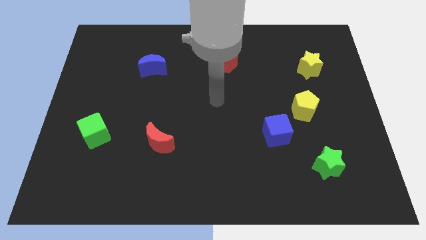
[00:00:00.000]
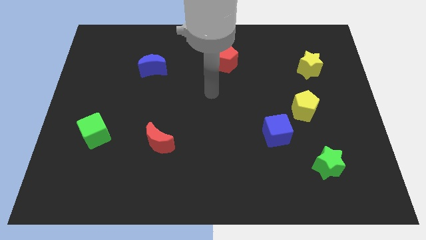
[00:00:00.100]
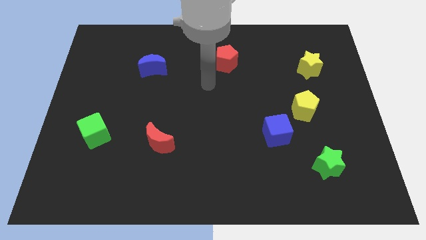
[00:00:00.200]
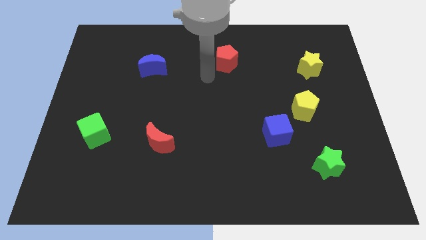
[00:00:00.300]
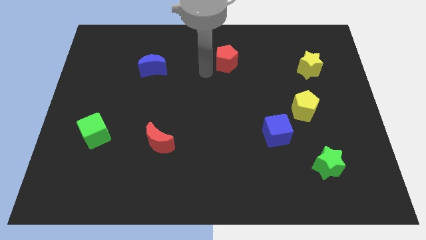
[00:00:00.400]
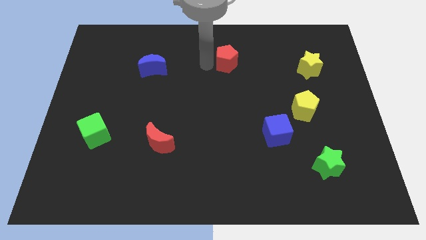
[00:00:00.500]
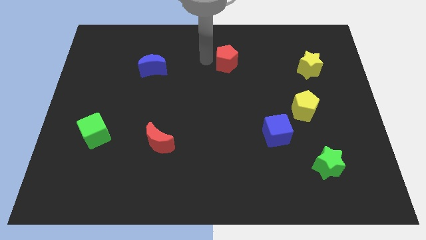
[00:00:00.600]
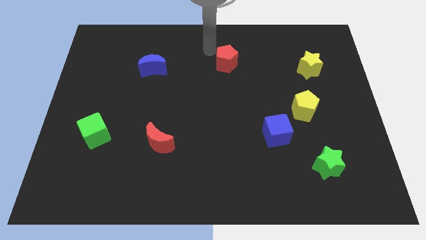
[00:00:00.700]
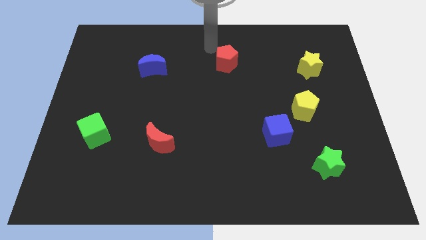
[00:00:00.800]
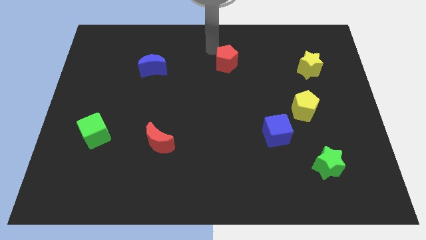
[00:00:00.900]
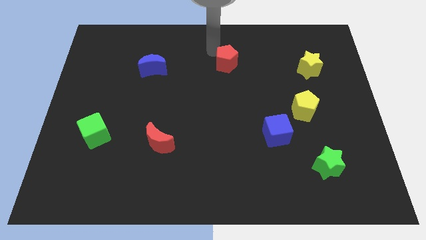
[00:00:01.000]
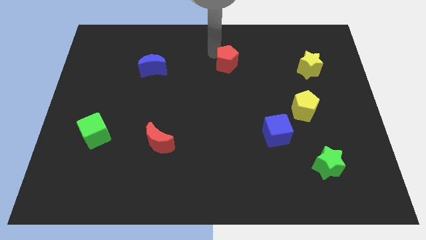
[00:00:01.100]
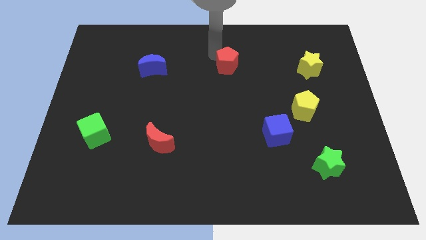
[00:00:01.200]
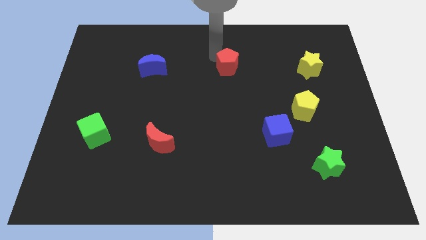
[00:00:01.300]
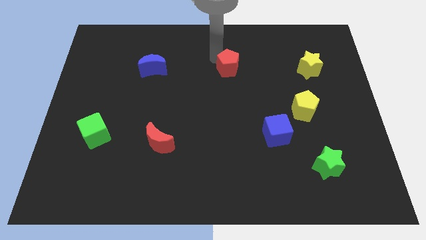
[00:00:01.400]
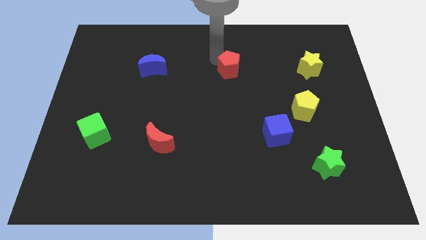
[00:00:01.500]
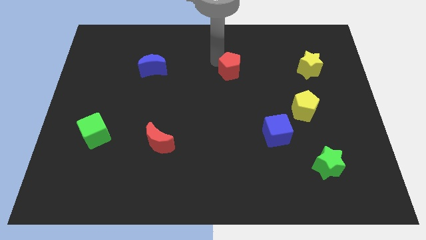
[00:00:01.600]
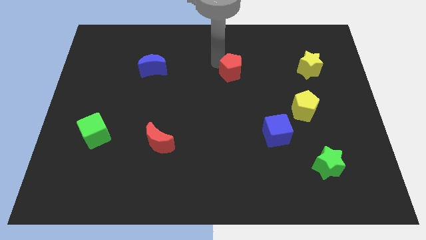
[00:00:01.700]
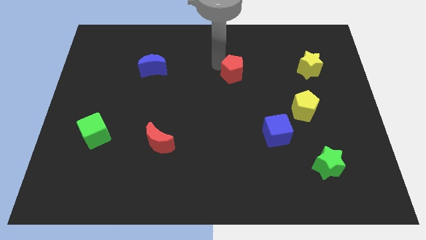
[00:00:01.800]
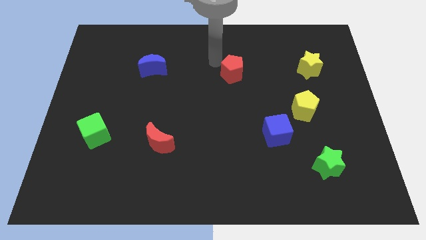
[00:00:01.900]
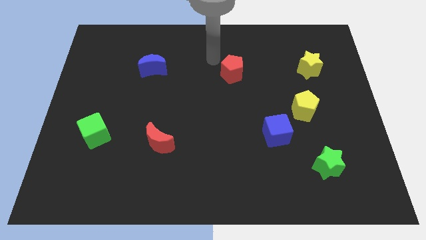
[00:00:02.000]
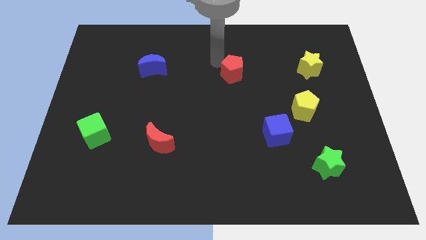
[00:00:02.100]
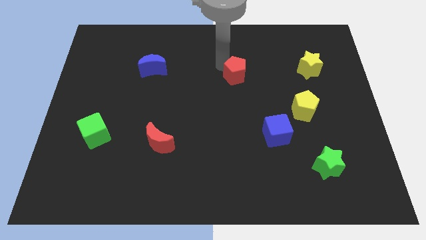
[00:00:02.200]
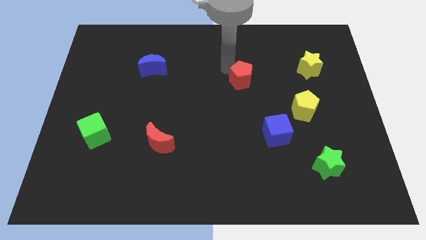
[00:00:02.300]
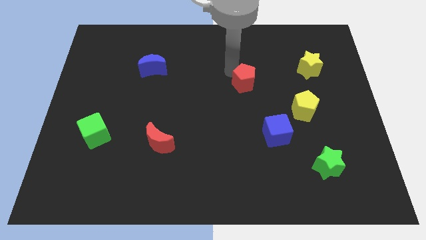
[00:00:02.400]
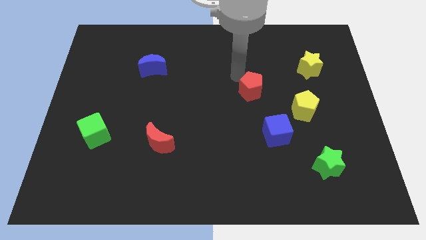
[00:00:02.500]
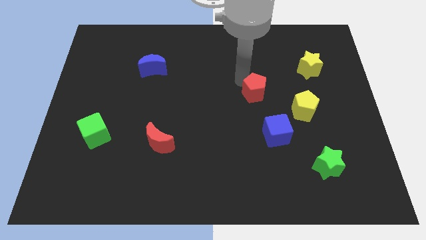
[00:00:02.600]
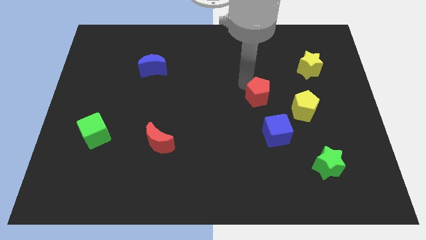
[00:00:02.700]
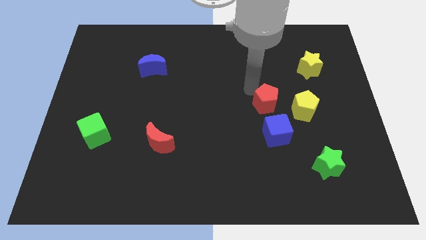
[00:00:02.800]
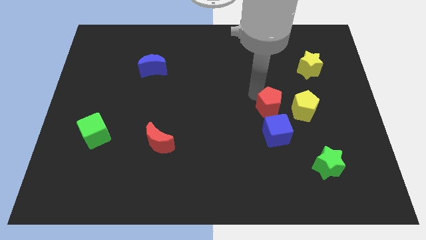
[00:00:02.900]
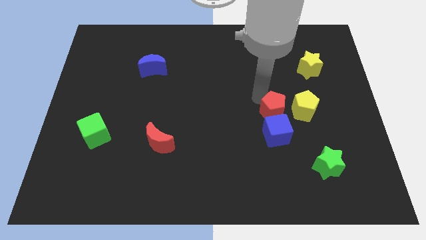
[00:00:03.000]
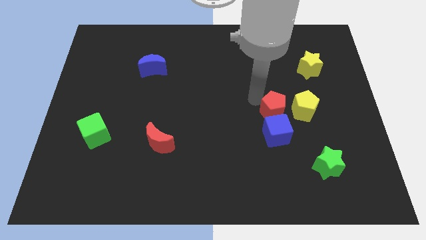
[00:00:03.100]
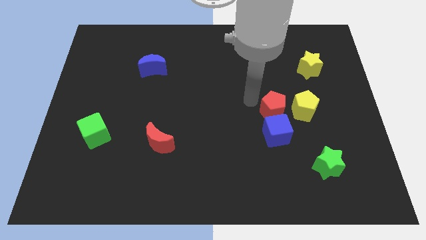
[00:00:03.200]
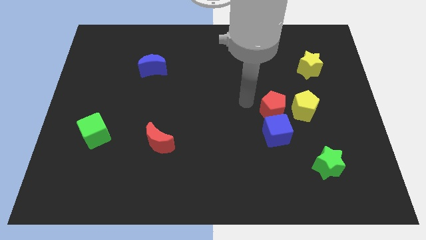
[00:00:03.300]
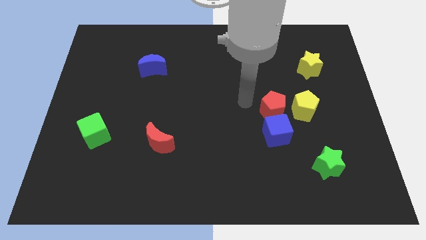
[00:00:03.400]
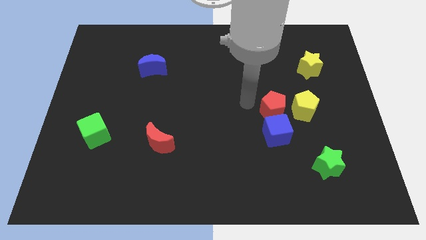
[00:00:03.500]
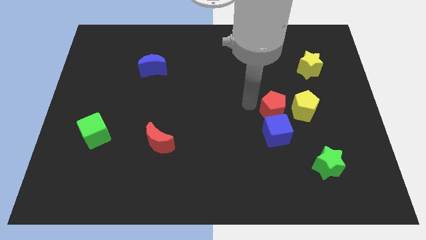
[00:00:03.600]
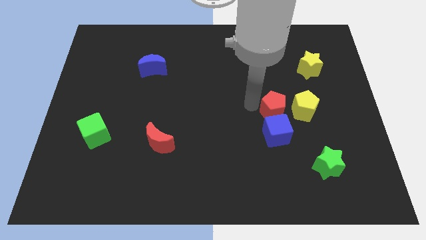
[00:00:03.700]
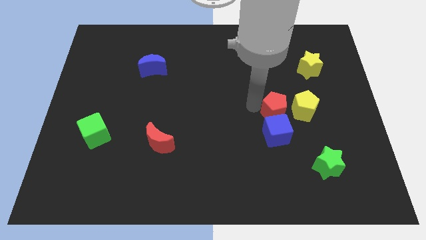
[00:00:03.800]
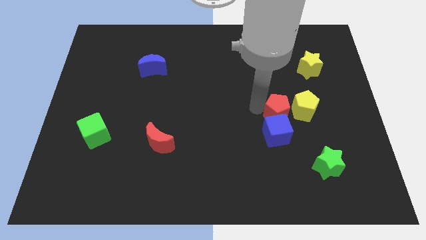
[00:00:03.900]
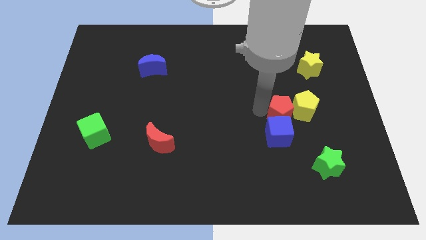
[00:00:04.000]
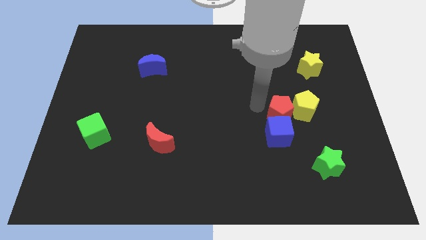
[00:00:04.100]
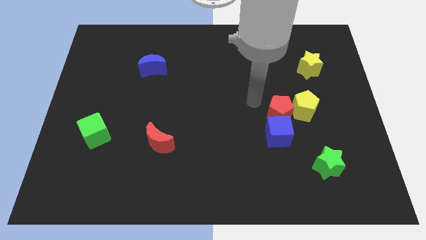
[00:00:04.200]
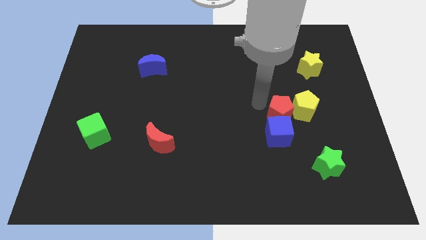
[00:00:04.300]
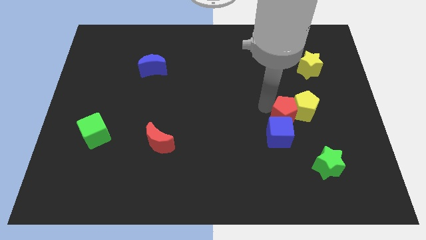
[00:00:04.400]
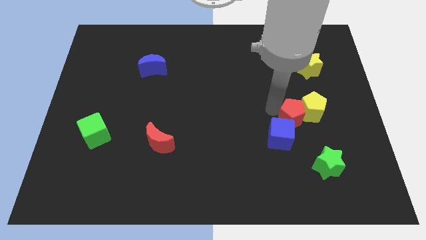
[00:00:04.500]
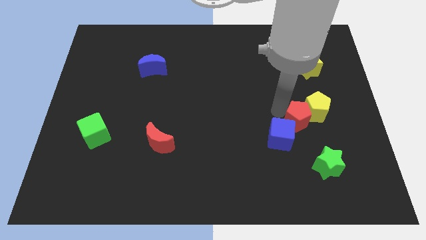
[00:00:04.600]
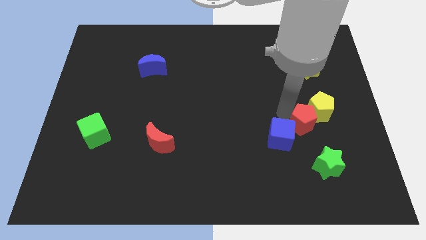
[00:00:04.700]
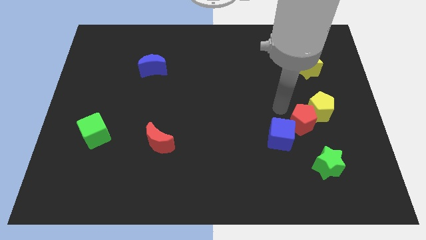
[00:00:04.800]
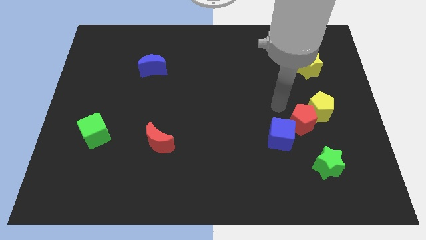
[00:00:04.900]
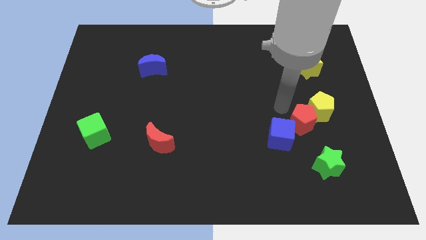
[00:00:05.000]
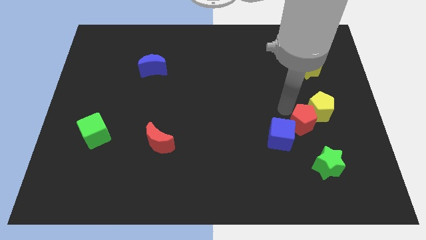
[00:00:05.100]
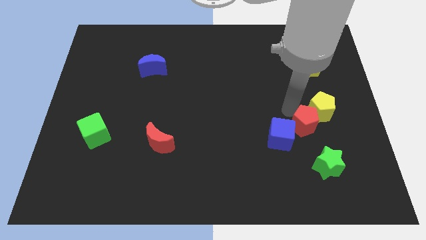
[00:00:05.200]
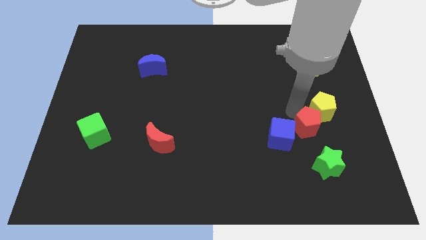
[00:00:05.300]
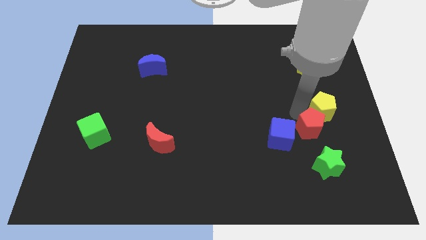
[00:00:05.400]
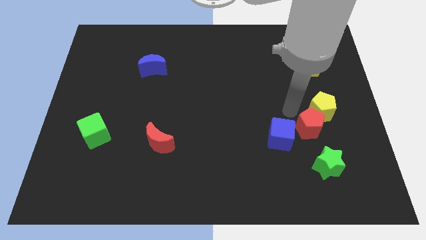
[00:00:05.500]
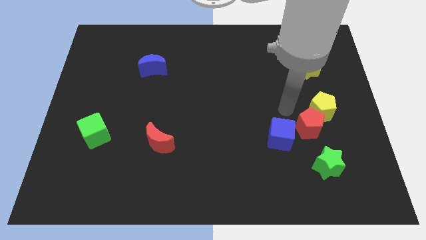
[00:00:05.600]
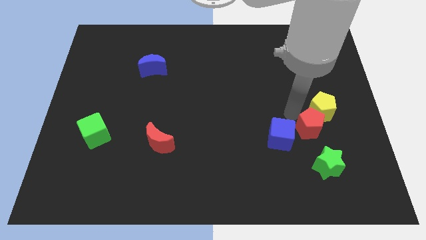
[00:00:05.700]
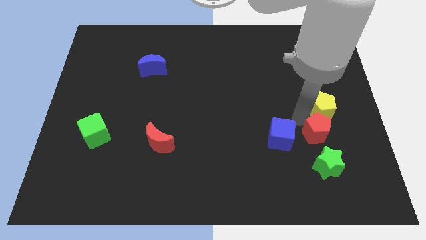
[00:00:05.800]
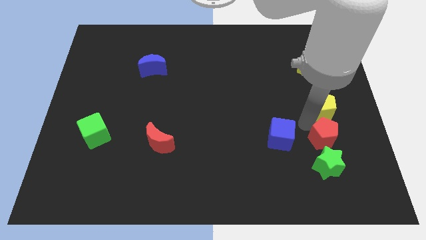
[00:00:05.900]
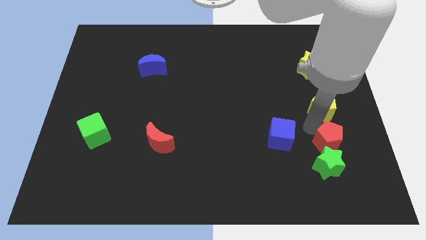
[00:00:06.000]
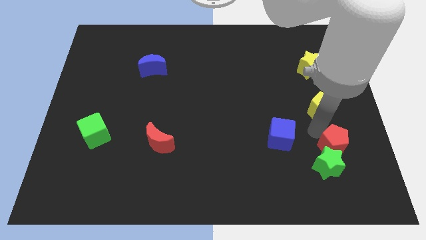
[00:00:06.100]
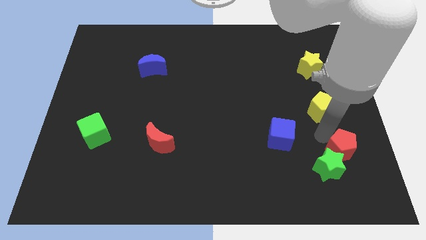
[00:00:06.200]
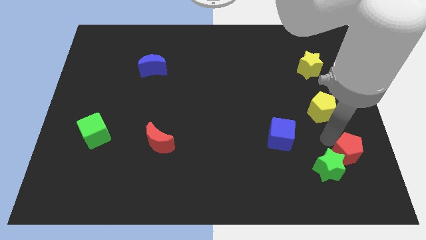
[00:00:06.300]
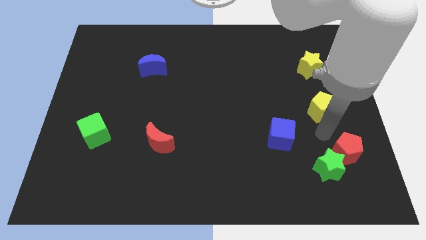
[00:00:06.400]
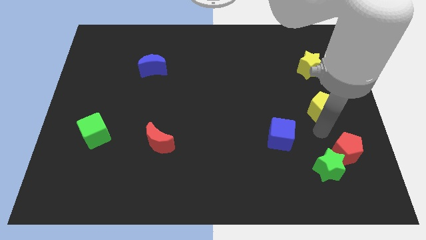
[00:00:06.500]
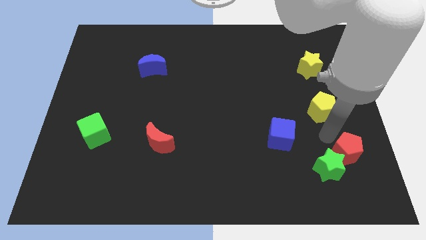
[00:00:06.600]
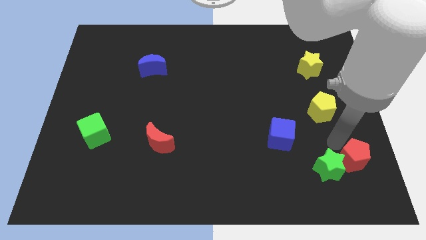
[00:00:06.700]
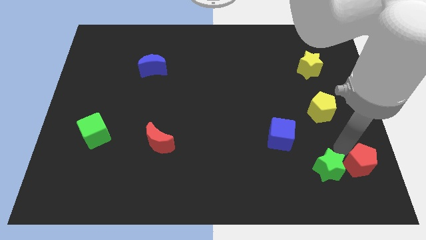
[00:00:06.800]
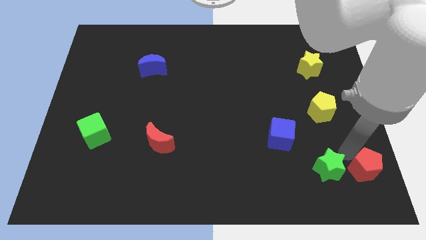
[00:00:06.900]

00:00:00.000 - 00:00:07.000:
slide the red pentagon to the bottom right
